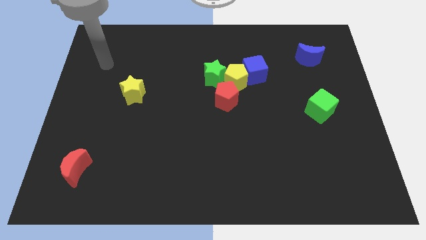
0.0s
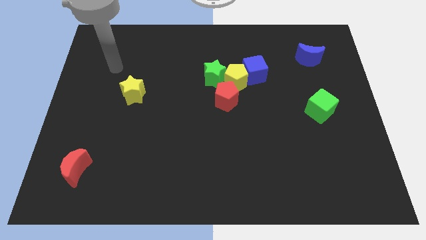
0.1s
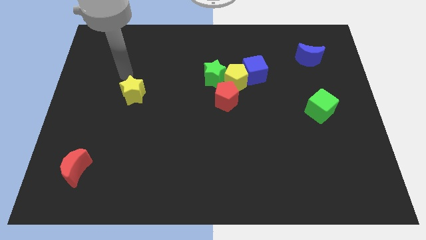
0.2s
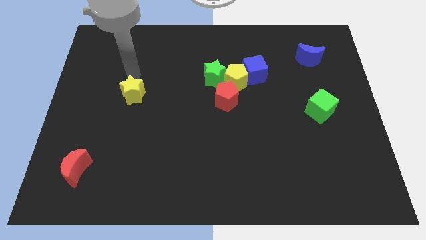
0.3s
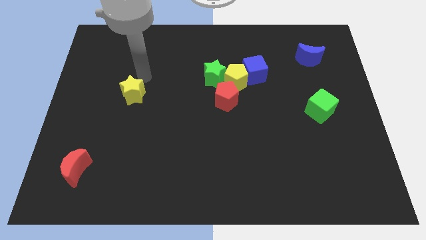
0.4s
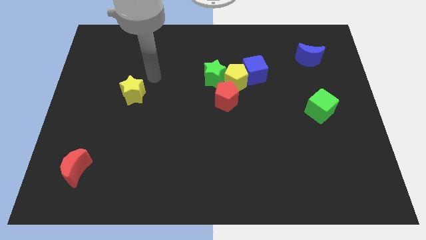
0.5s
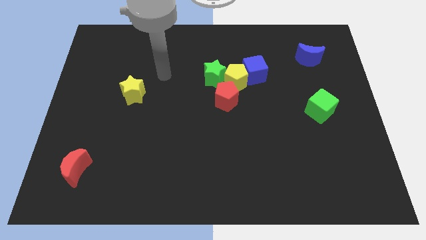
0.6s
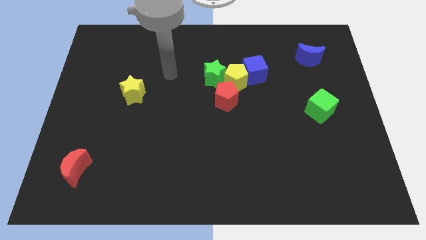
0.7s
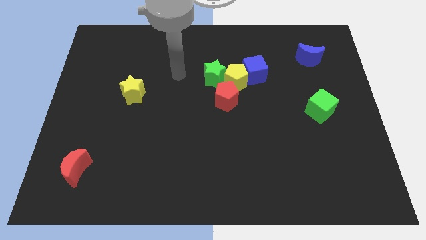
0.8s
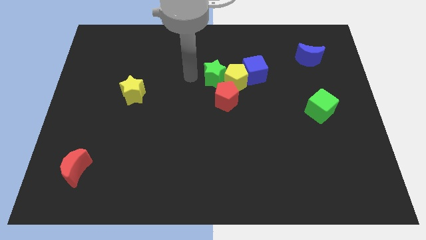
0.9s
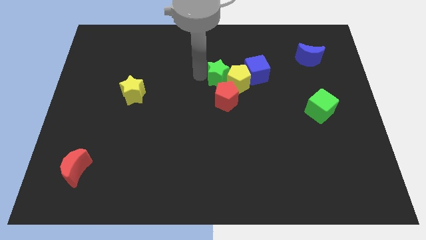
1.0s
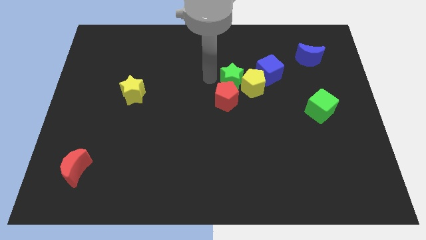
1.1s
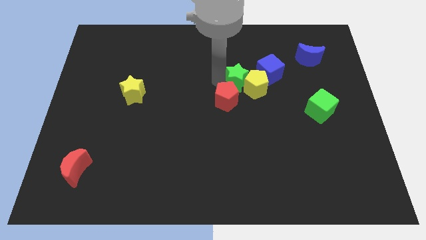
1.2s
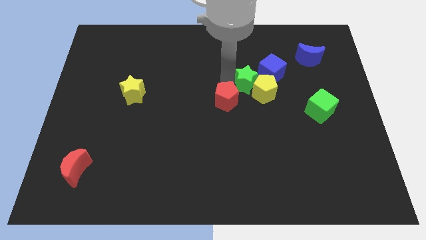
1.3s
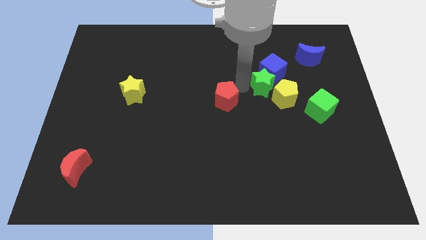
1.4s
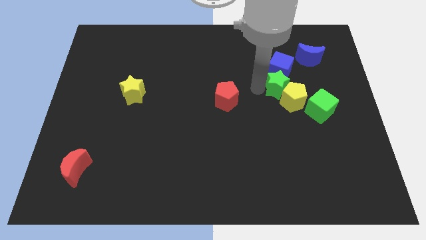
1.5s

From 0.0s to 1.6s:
pull the blue cube apart from the yellow pentagon

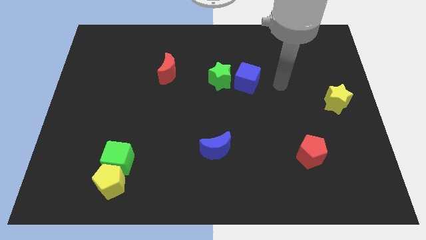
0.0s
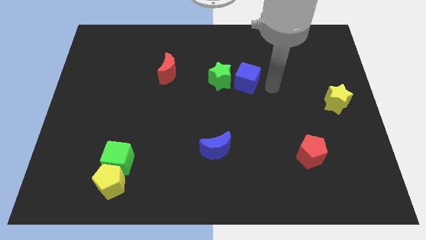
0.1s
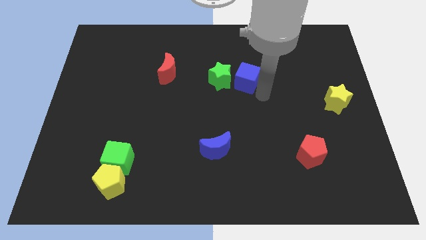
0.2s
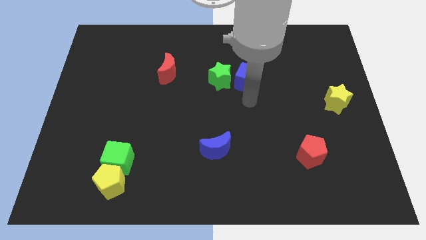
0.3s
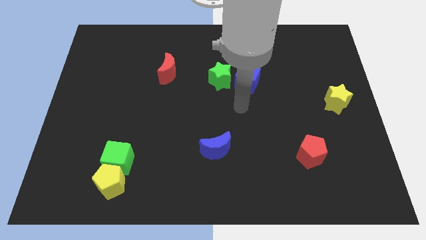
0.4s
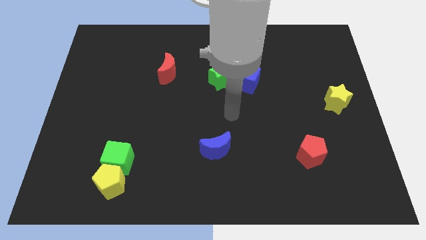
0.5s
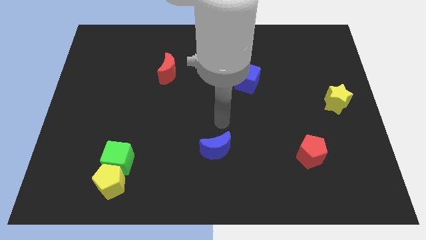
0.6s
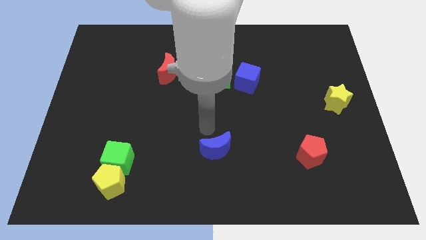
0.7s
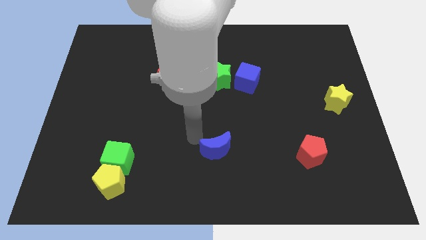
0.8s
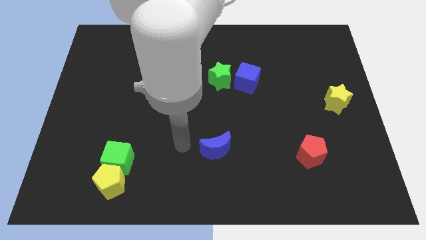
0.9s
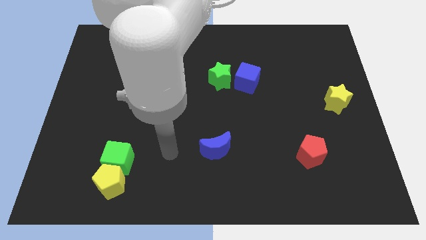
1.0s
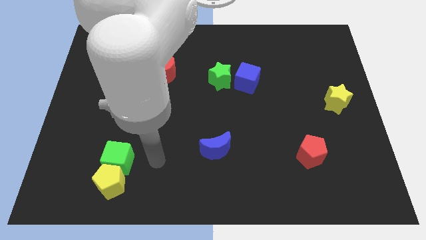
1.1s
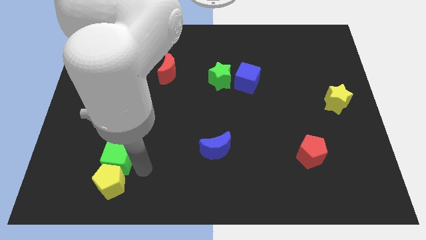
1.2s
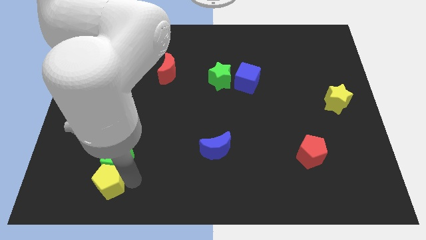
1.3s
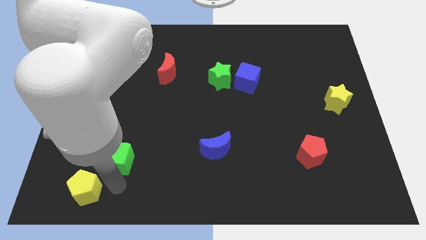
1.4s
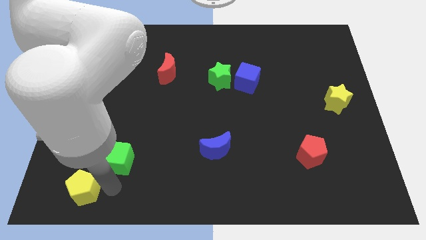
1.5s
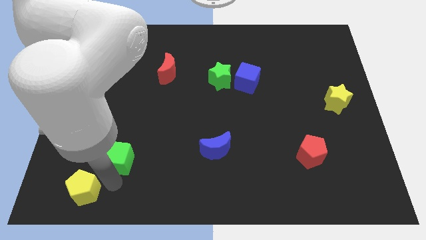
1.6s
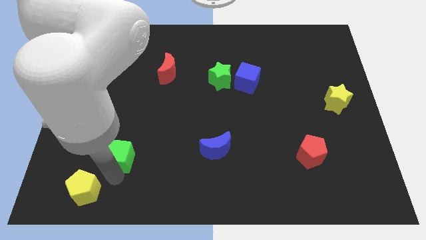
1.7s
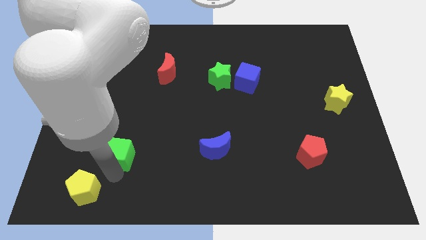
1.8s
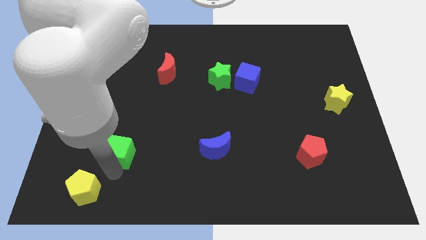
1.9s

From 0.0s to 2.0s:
pull the green cube apart from the yellow pentagon

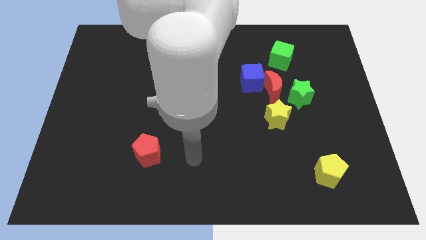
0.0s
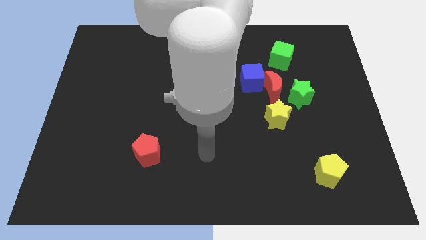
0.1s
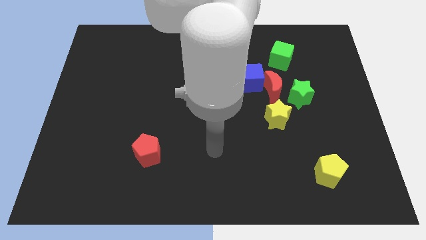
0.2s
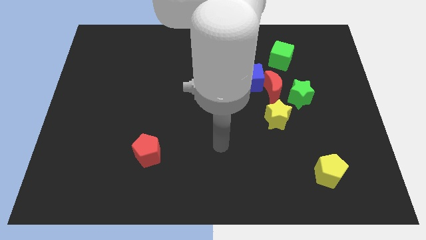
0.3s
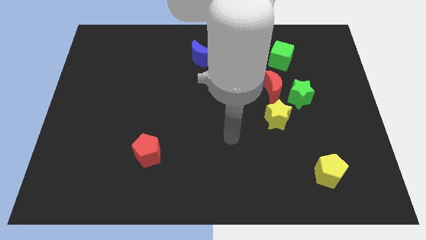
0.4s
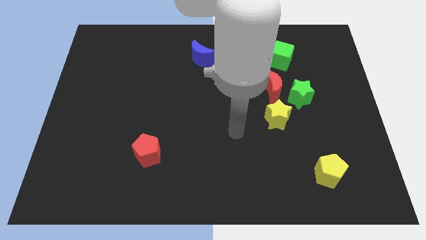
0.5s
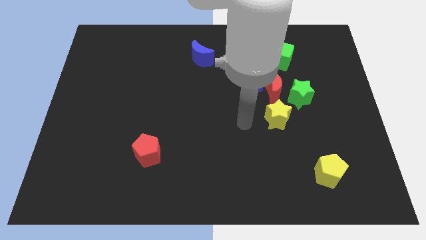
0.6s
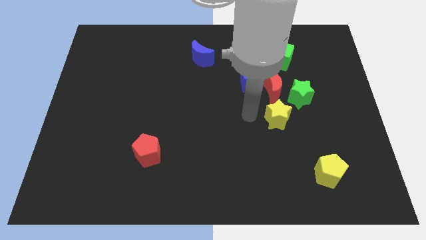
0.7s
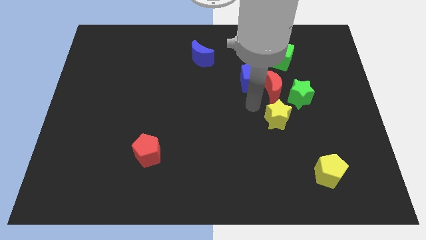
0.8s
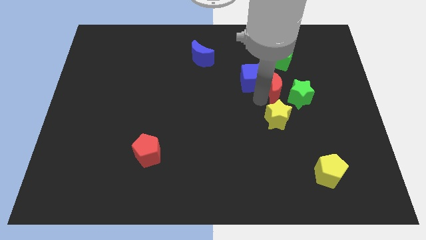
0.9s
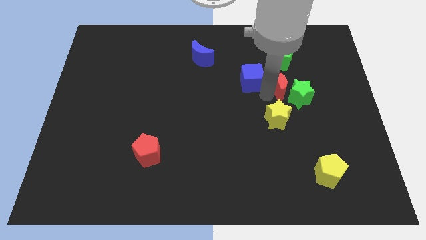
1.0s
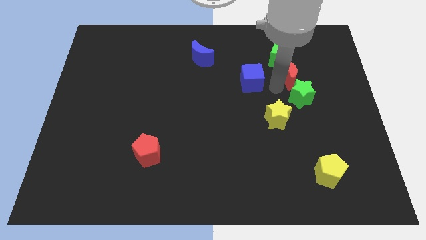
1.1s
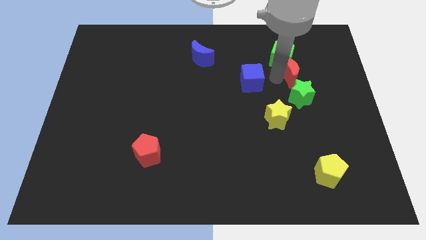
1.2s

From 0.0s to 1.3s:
separate the blue cube from the red moon

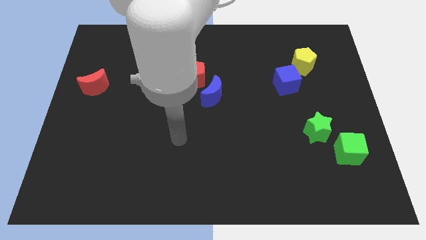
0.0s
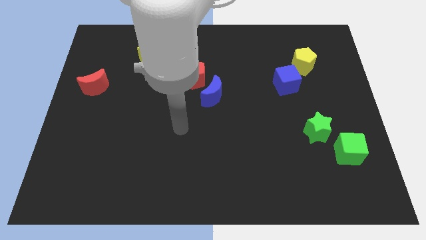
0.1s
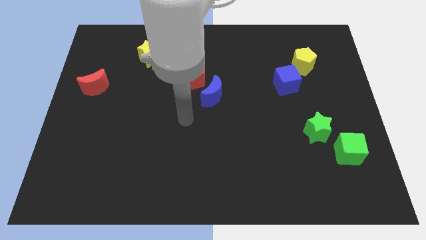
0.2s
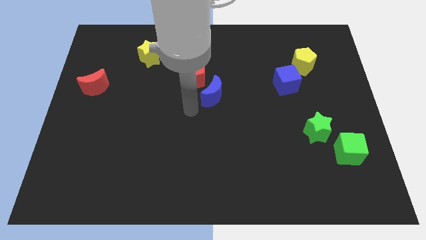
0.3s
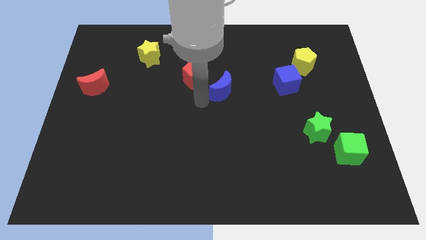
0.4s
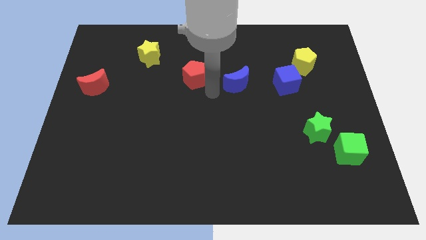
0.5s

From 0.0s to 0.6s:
pull the red pentagon apart from the blue moon

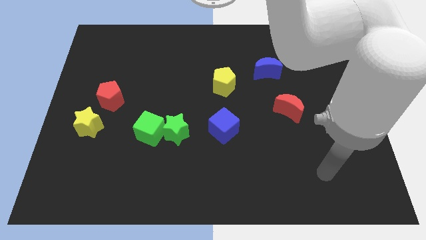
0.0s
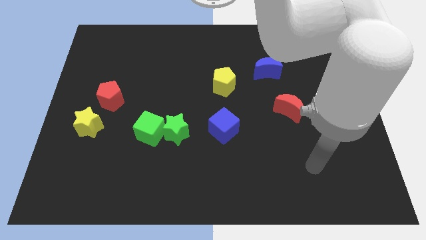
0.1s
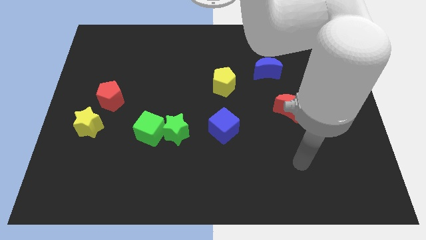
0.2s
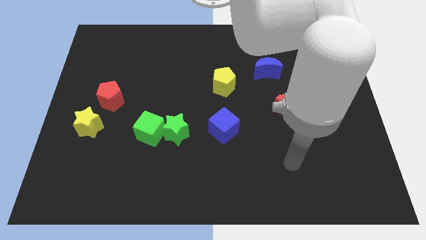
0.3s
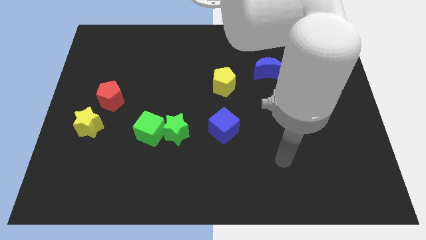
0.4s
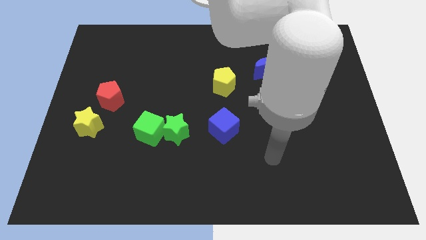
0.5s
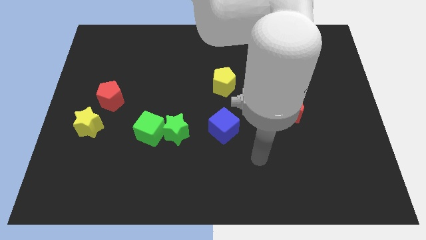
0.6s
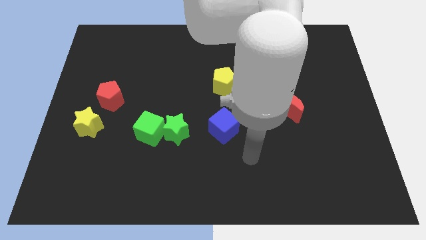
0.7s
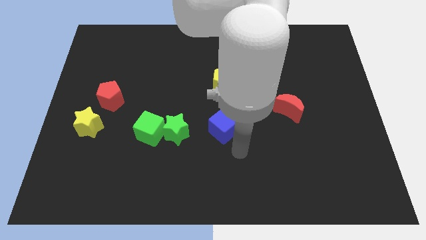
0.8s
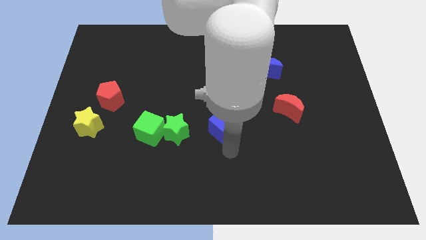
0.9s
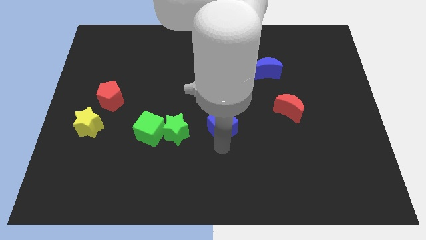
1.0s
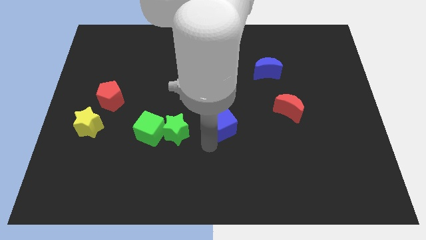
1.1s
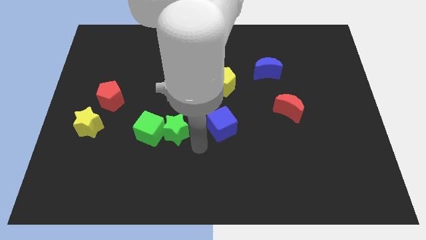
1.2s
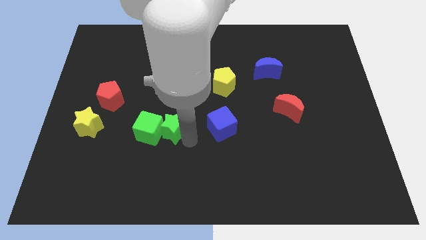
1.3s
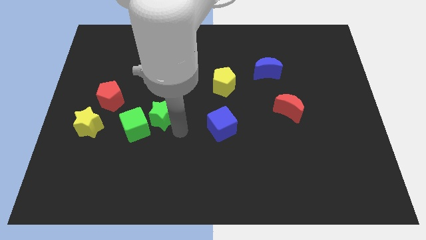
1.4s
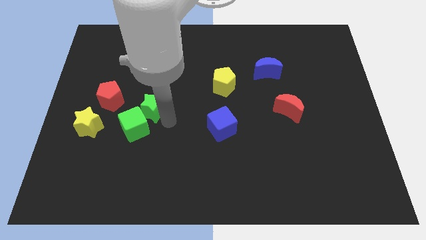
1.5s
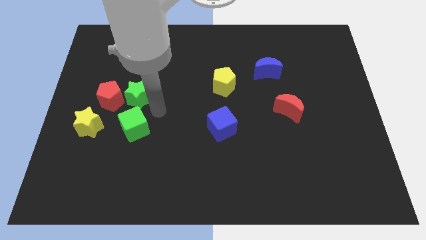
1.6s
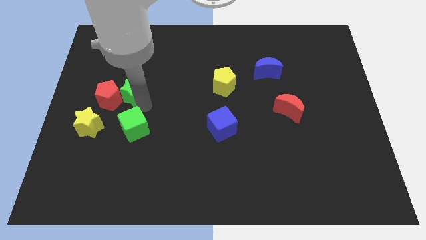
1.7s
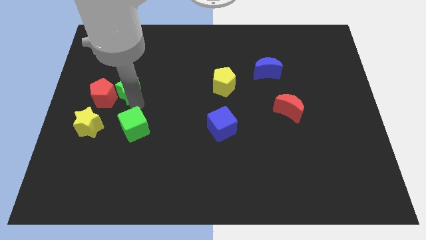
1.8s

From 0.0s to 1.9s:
move the green cube away from the green star

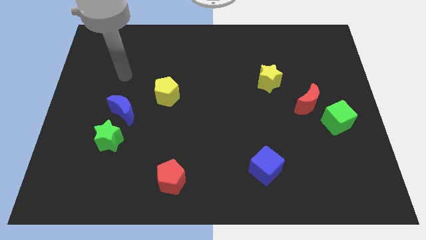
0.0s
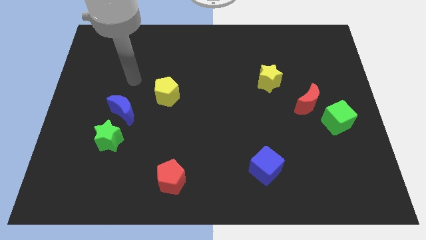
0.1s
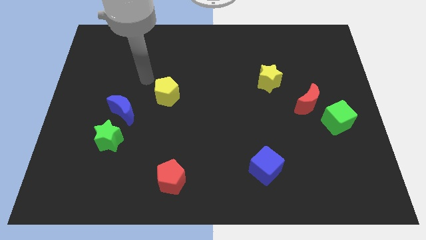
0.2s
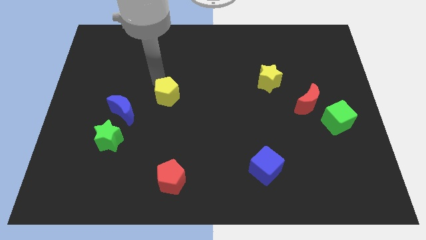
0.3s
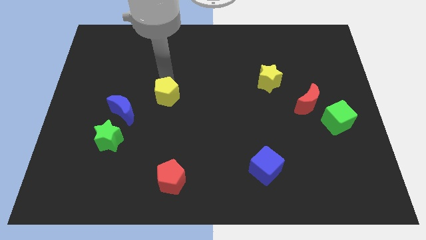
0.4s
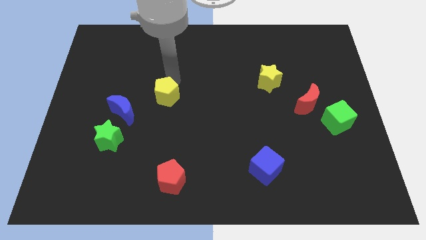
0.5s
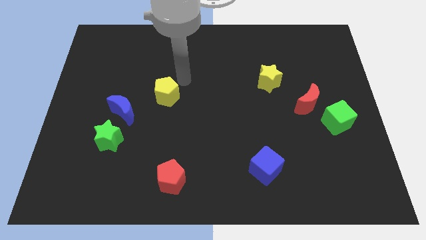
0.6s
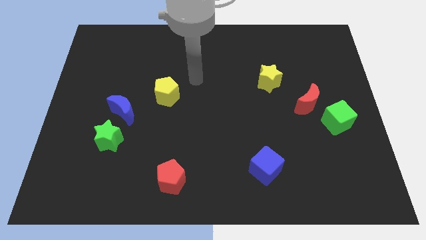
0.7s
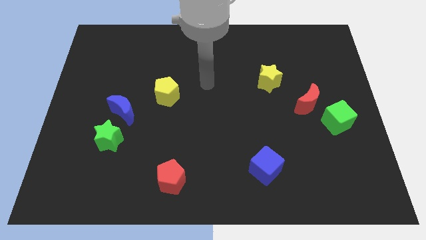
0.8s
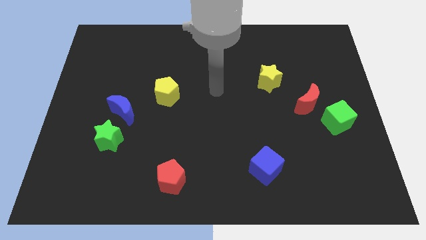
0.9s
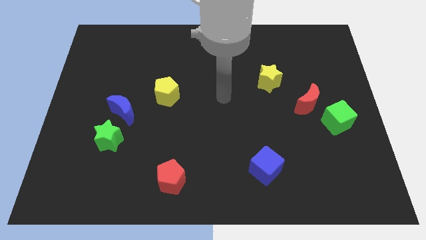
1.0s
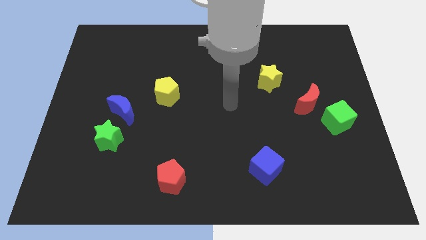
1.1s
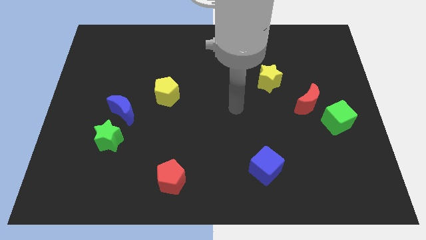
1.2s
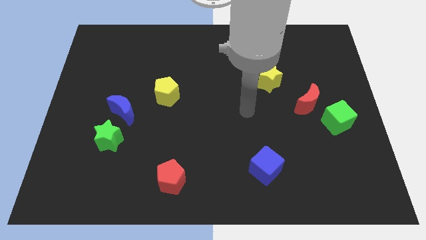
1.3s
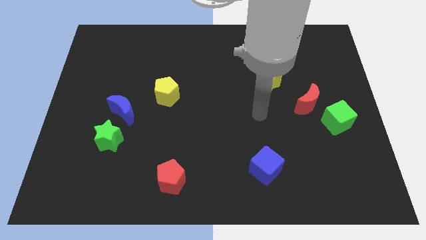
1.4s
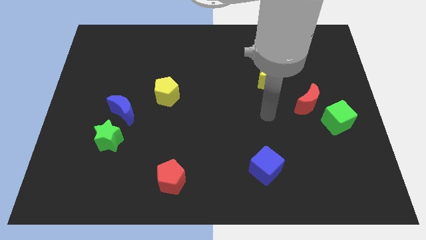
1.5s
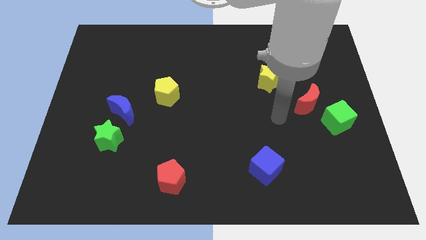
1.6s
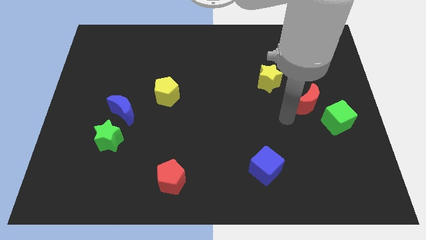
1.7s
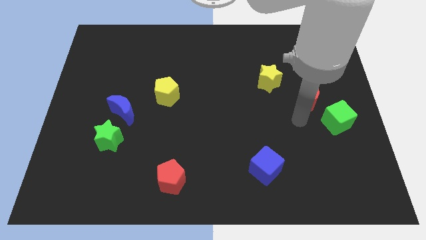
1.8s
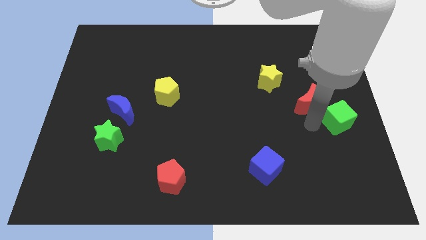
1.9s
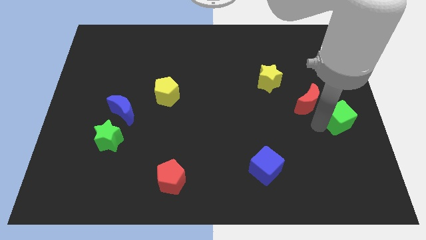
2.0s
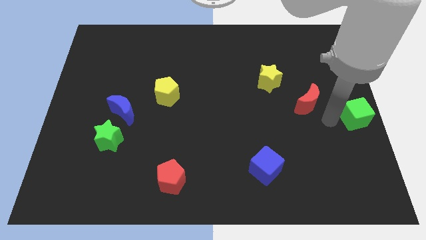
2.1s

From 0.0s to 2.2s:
separate the red moon from the green cube
